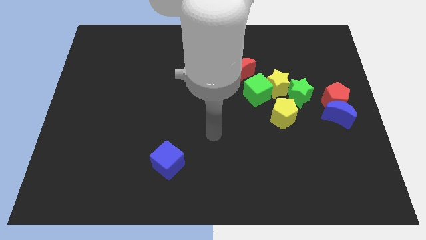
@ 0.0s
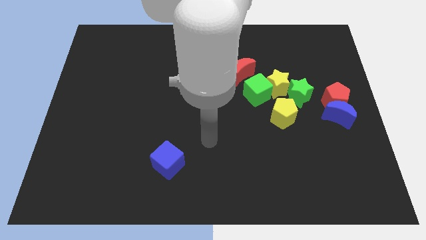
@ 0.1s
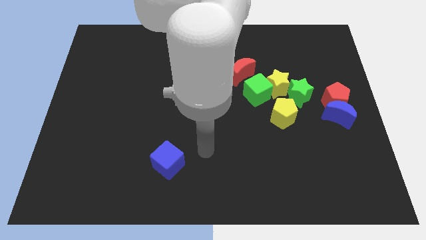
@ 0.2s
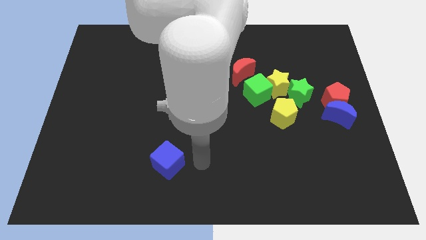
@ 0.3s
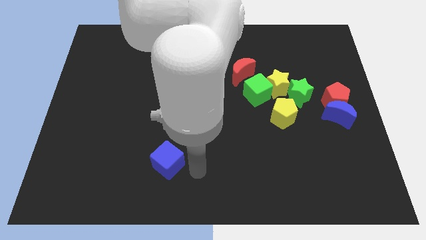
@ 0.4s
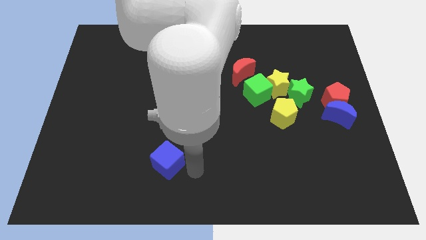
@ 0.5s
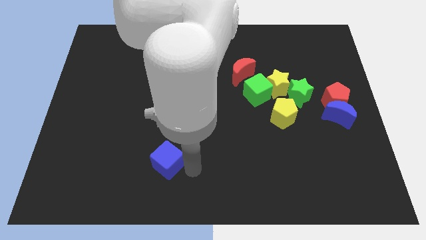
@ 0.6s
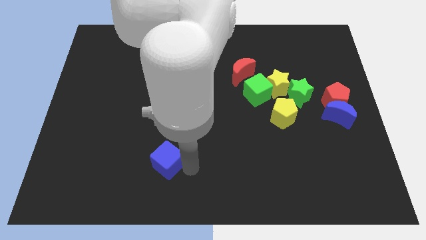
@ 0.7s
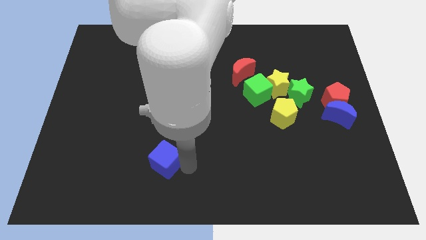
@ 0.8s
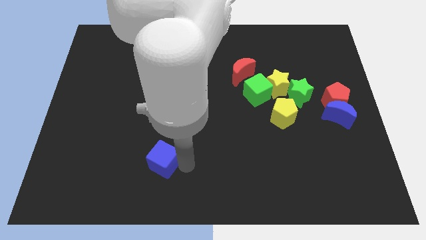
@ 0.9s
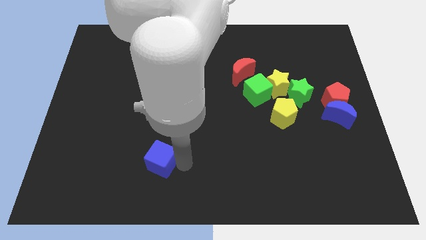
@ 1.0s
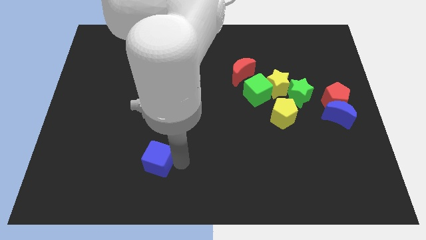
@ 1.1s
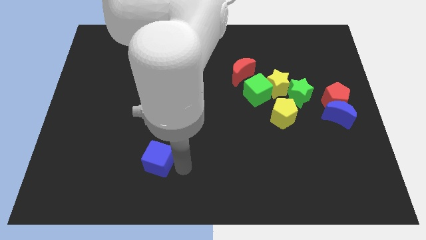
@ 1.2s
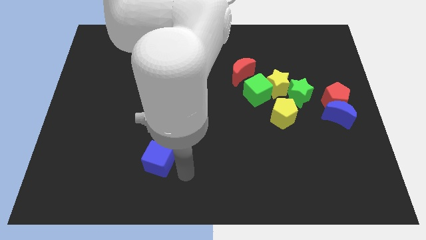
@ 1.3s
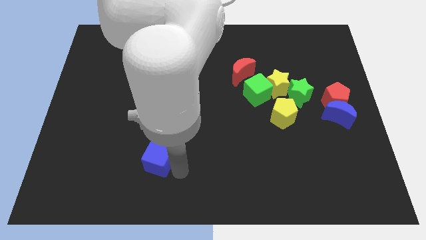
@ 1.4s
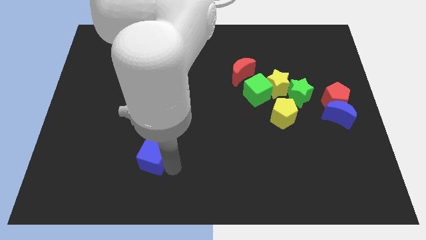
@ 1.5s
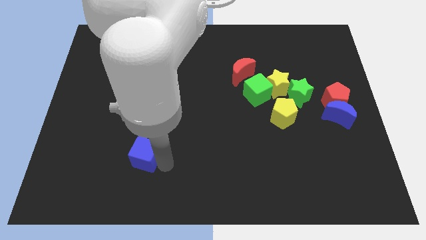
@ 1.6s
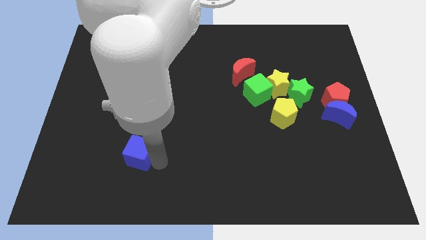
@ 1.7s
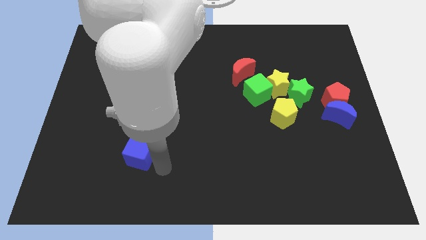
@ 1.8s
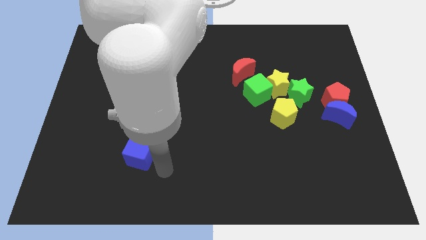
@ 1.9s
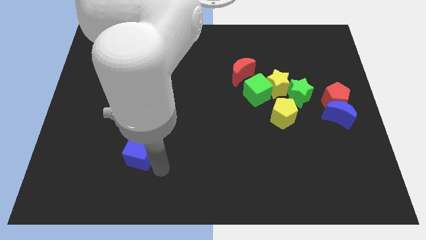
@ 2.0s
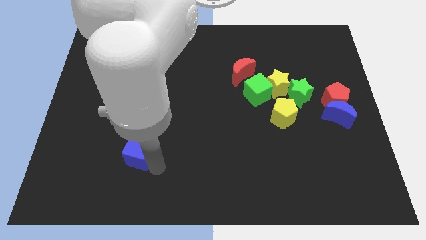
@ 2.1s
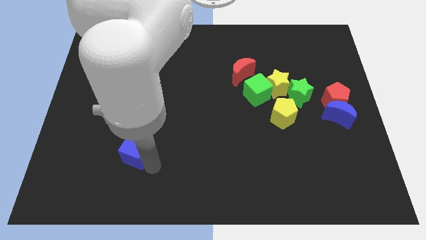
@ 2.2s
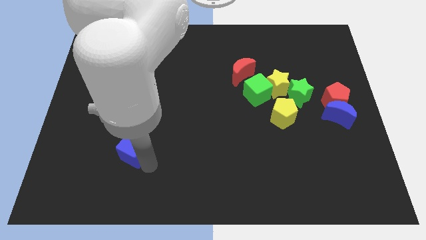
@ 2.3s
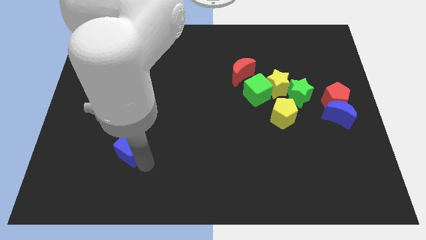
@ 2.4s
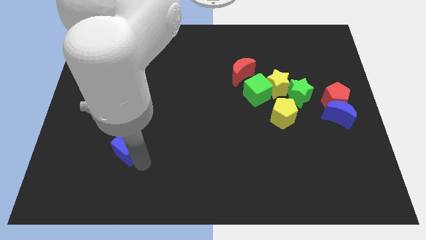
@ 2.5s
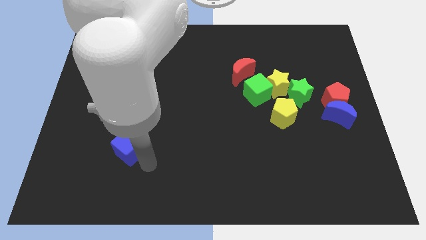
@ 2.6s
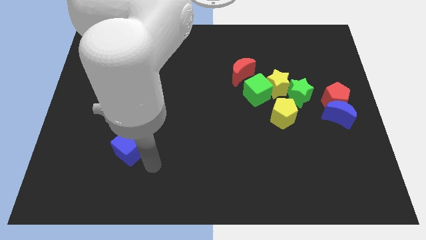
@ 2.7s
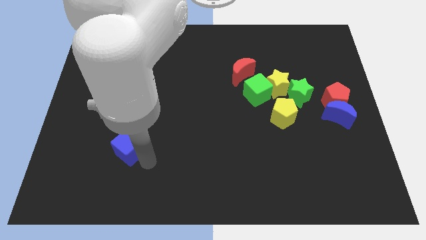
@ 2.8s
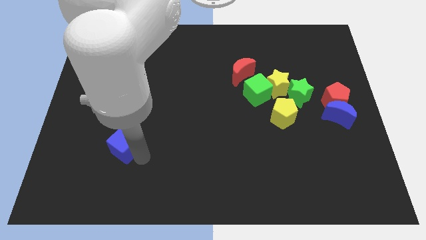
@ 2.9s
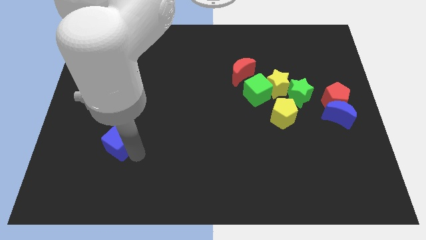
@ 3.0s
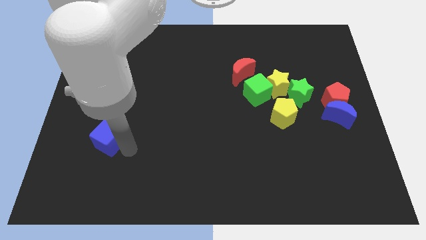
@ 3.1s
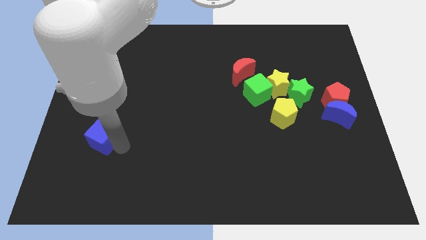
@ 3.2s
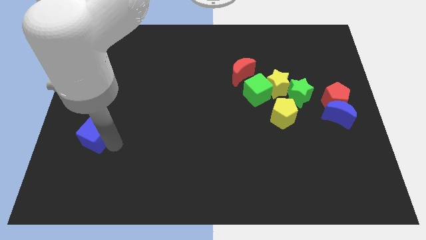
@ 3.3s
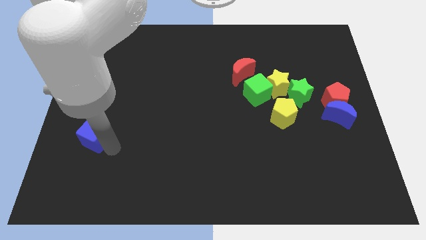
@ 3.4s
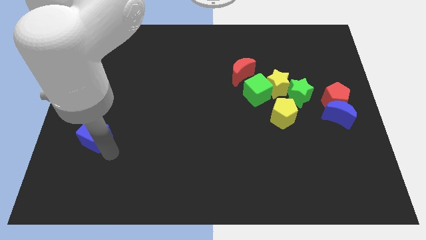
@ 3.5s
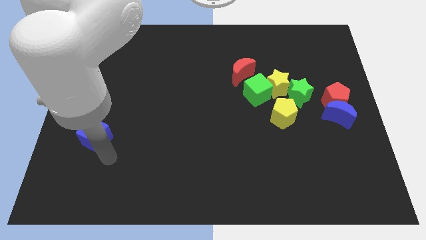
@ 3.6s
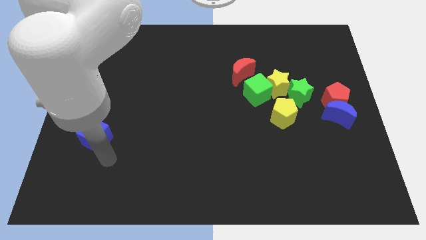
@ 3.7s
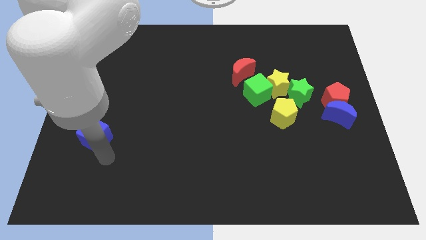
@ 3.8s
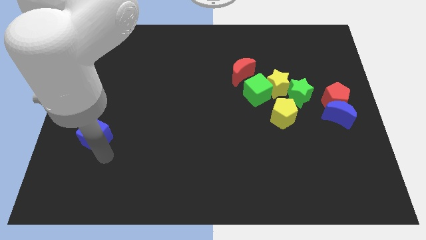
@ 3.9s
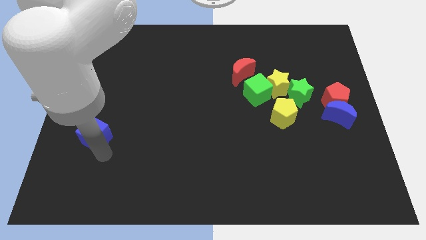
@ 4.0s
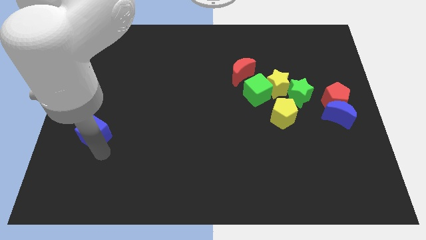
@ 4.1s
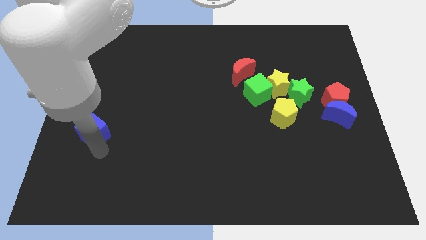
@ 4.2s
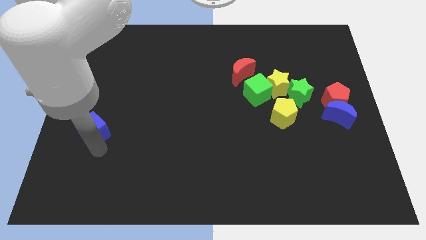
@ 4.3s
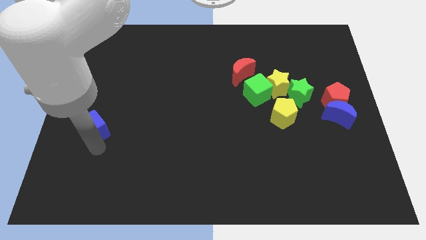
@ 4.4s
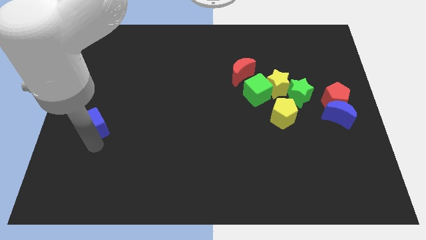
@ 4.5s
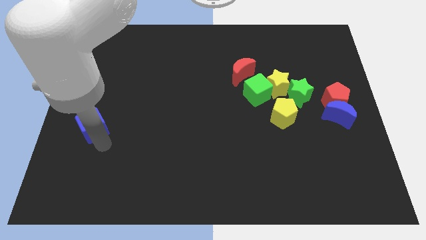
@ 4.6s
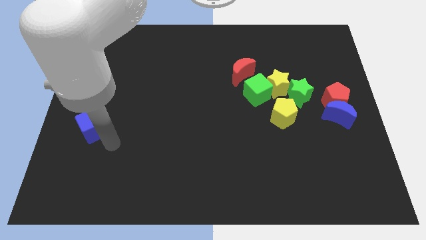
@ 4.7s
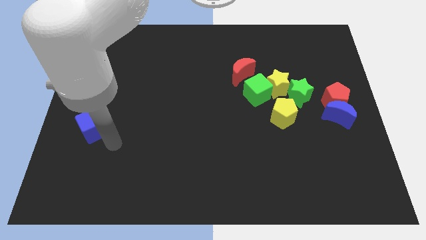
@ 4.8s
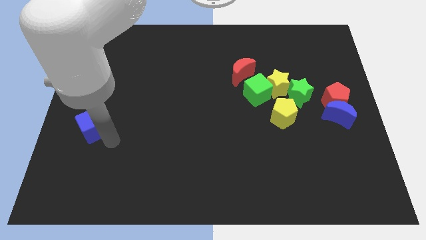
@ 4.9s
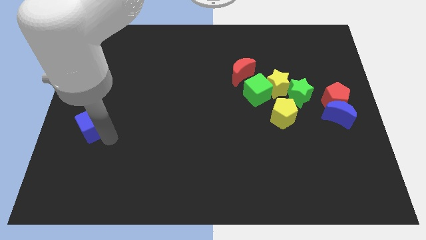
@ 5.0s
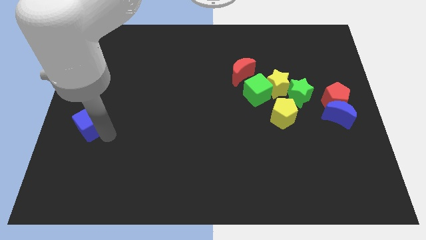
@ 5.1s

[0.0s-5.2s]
push the blue cube to the left side of the board

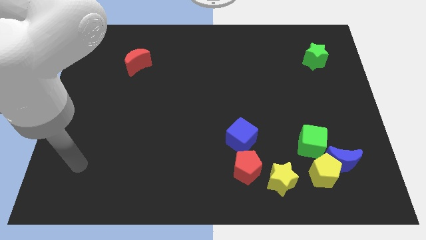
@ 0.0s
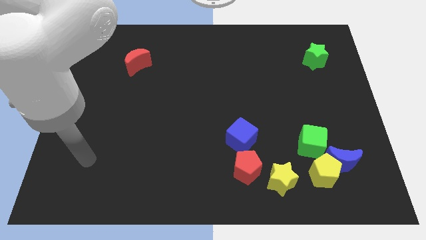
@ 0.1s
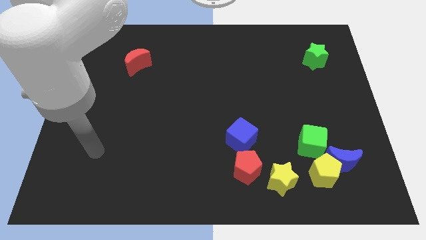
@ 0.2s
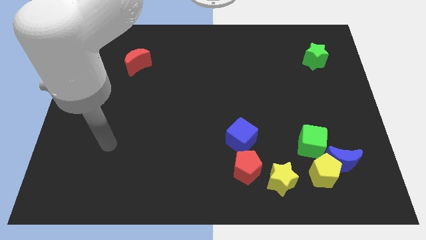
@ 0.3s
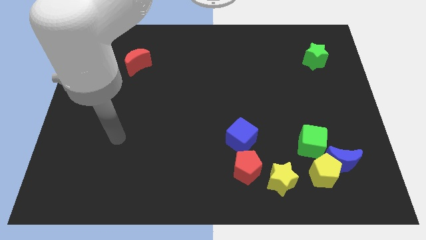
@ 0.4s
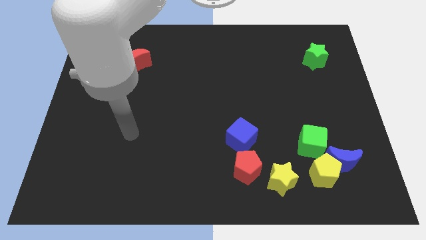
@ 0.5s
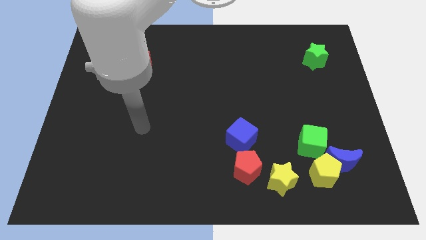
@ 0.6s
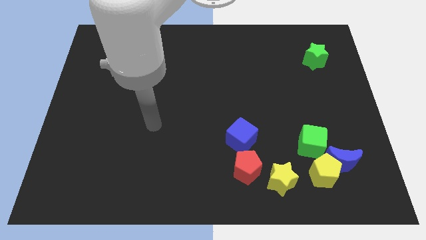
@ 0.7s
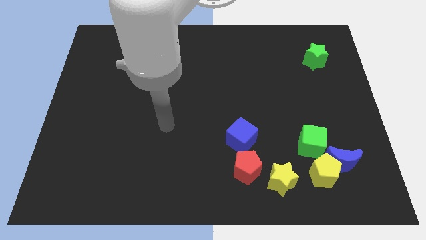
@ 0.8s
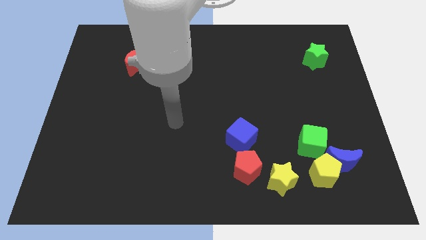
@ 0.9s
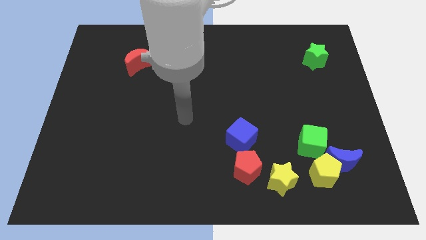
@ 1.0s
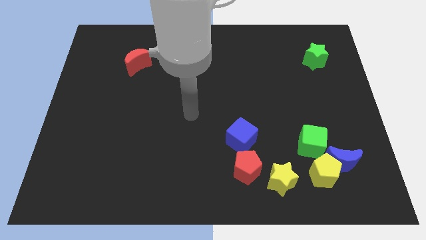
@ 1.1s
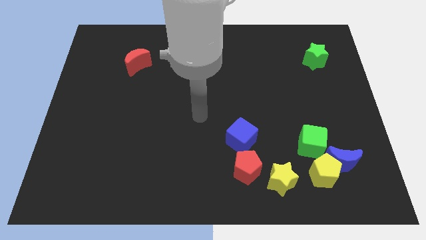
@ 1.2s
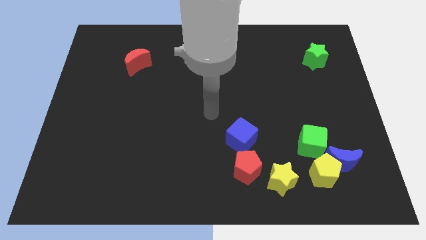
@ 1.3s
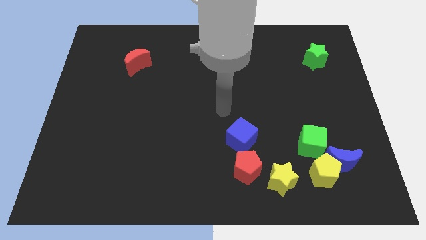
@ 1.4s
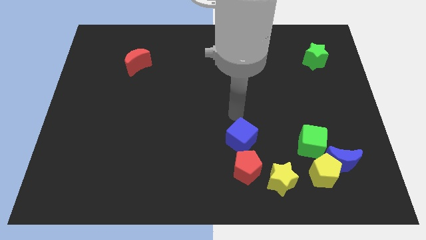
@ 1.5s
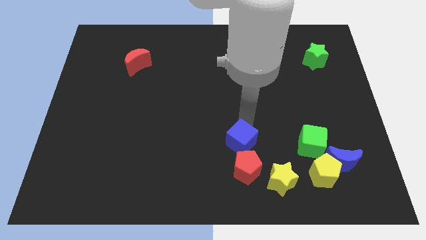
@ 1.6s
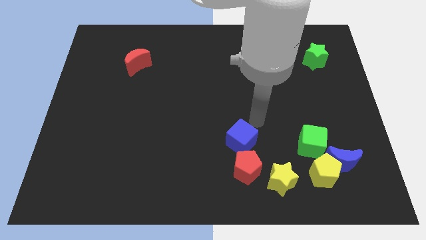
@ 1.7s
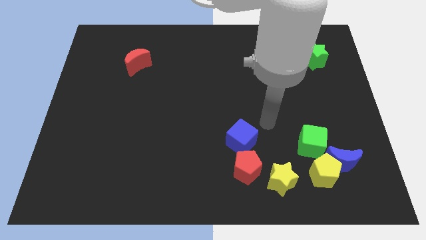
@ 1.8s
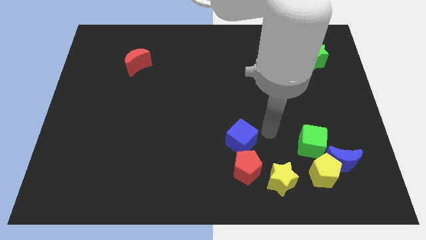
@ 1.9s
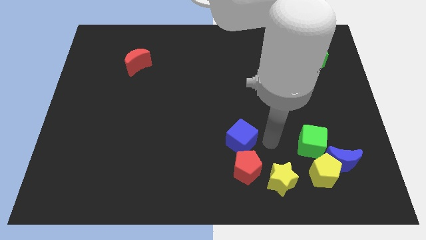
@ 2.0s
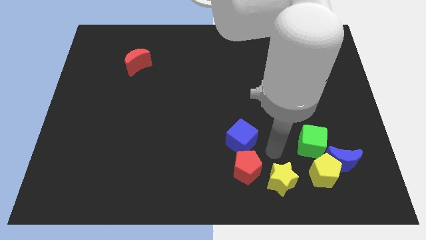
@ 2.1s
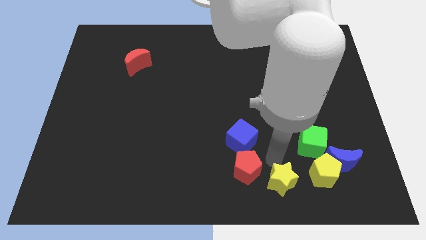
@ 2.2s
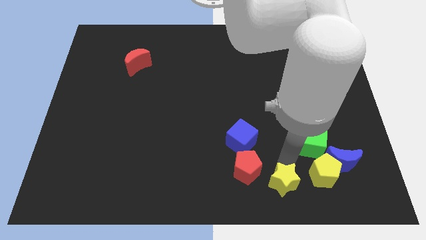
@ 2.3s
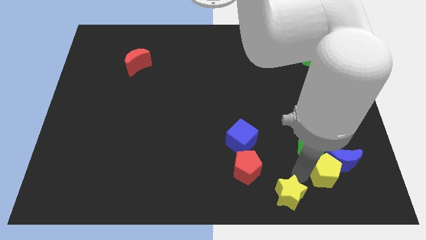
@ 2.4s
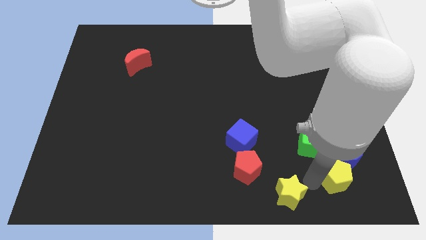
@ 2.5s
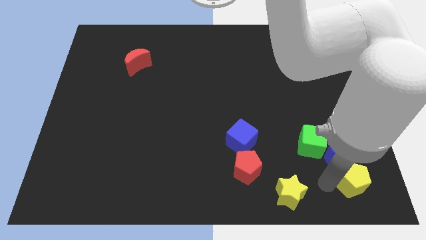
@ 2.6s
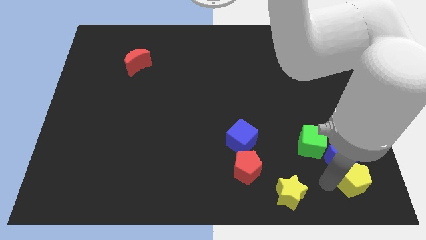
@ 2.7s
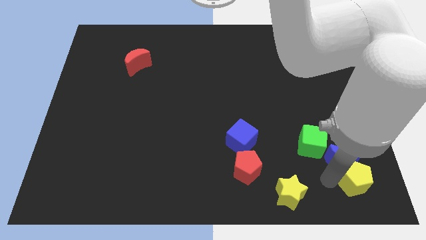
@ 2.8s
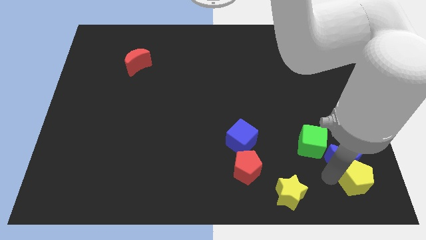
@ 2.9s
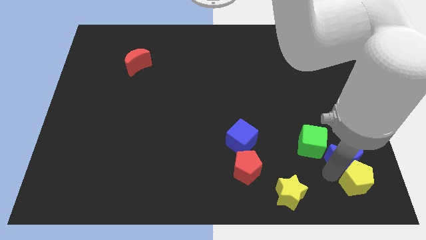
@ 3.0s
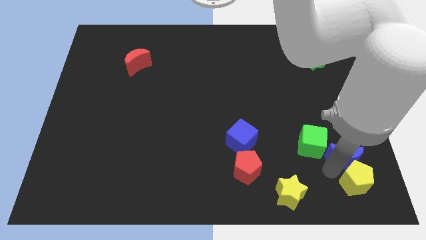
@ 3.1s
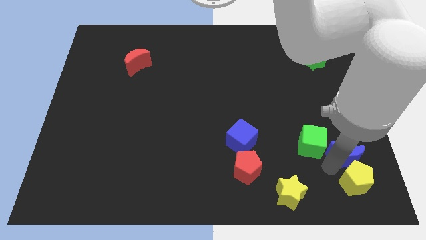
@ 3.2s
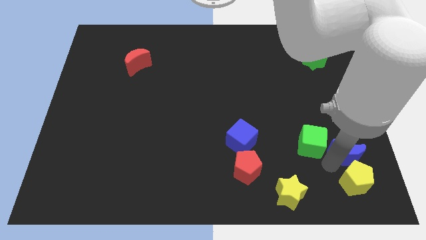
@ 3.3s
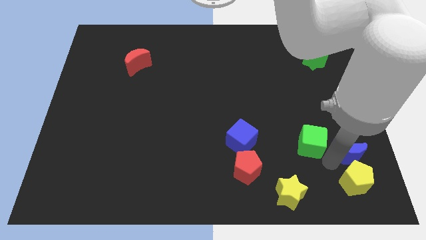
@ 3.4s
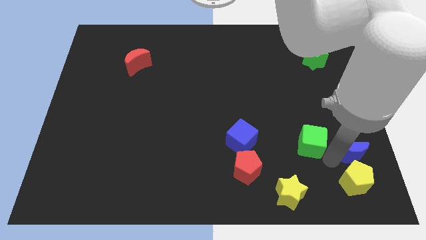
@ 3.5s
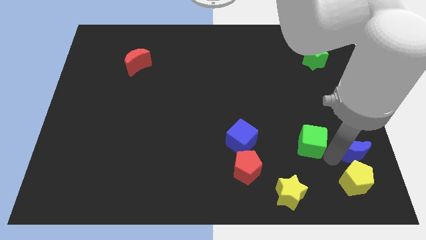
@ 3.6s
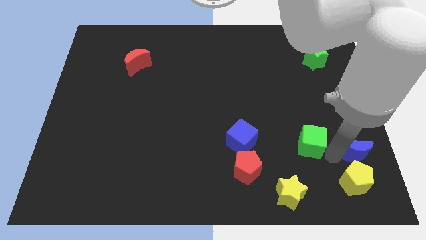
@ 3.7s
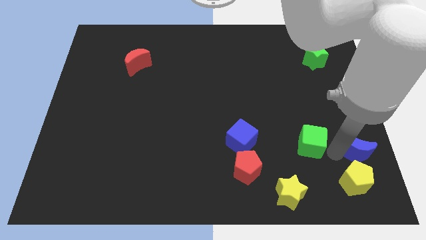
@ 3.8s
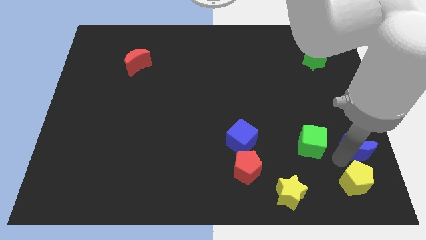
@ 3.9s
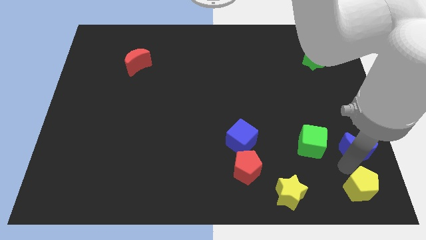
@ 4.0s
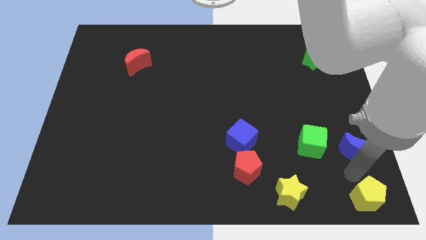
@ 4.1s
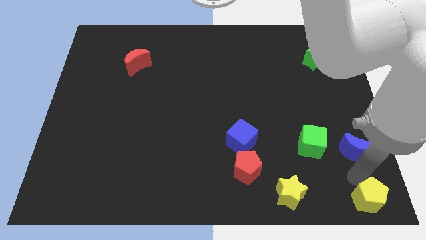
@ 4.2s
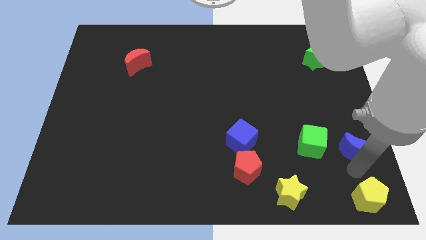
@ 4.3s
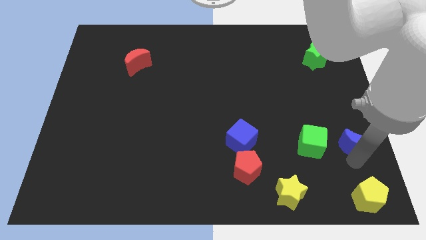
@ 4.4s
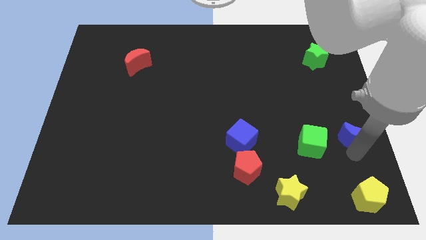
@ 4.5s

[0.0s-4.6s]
push the blue moon to the right side
